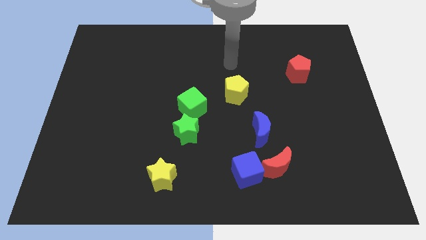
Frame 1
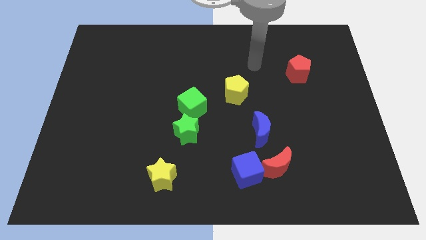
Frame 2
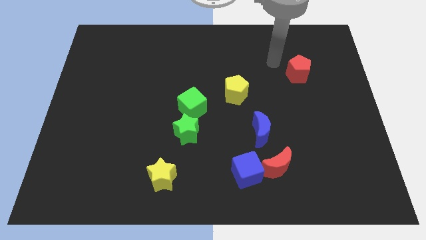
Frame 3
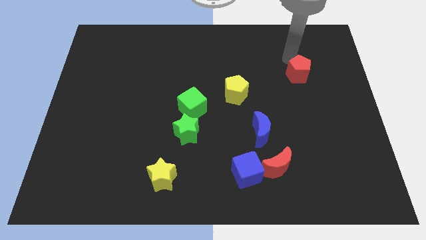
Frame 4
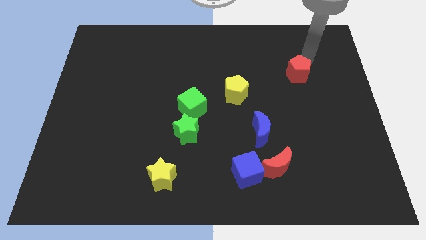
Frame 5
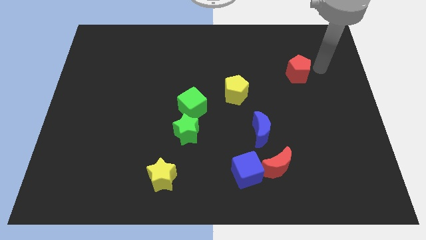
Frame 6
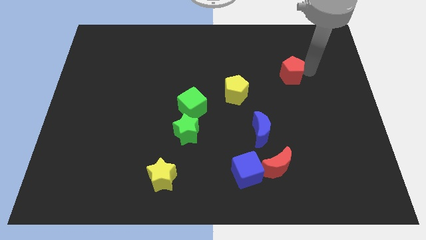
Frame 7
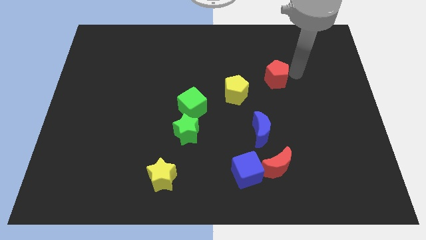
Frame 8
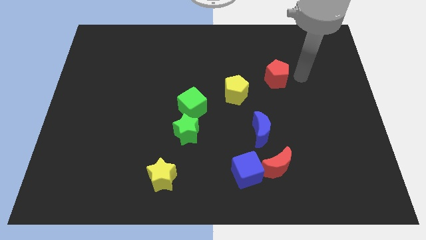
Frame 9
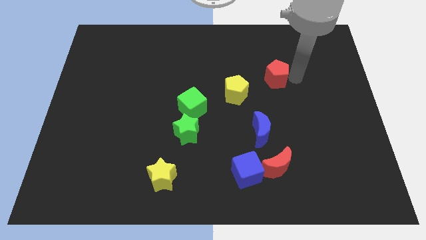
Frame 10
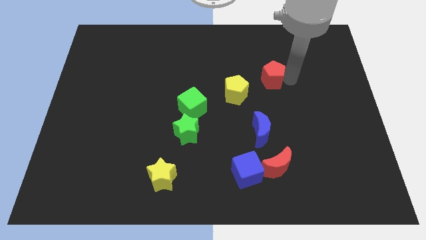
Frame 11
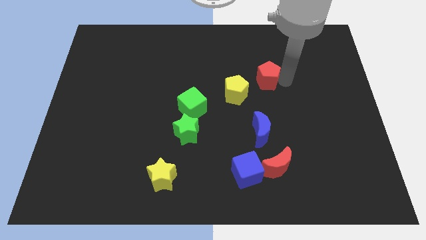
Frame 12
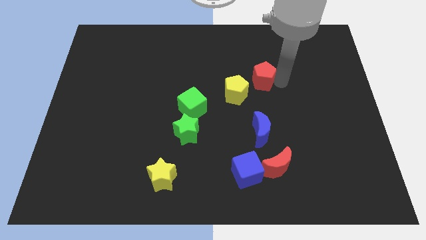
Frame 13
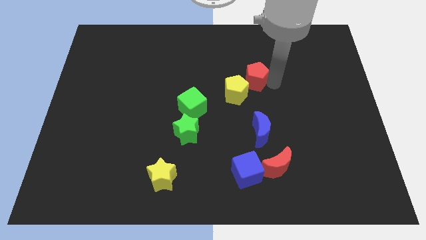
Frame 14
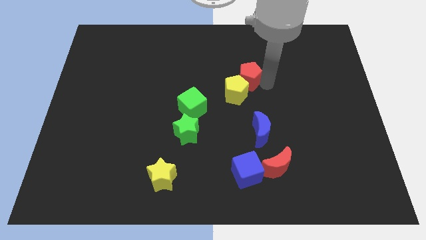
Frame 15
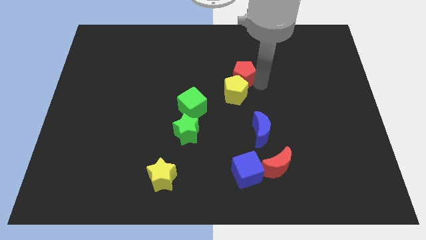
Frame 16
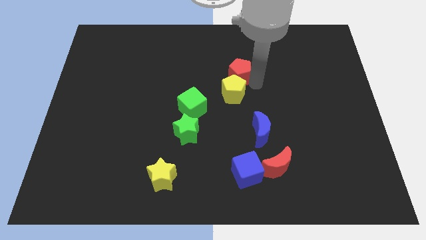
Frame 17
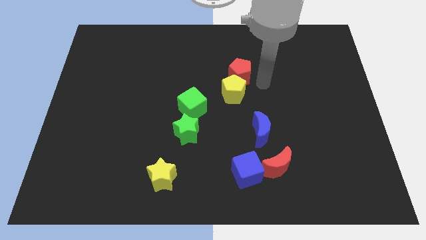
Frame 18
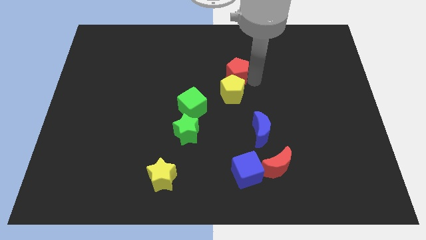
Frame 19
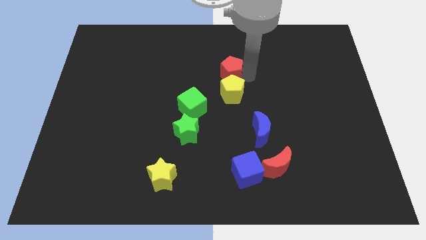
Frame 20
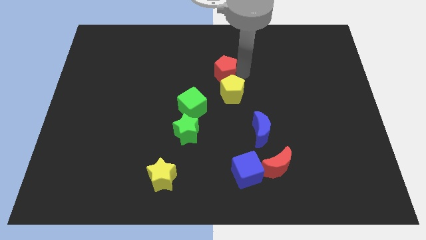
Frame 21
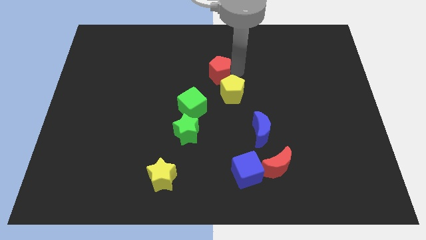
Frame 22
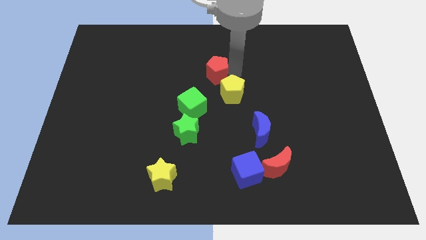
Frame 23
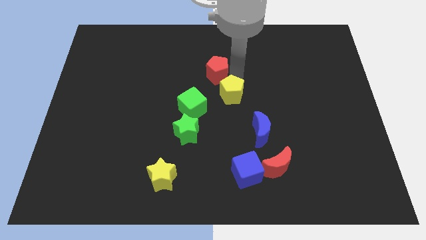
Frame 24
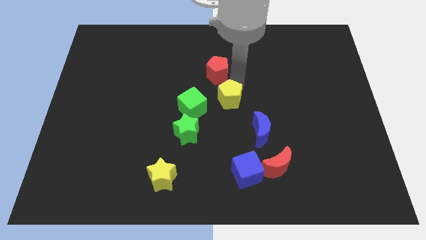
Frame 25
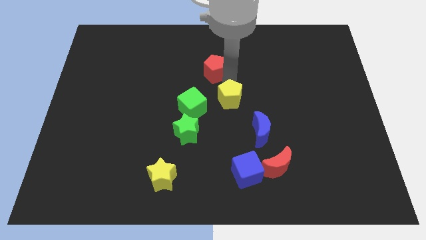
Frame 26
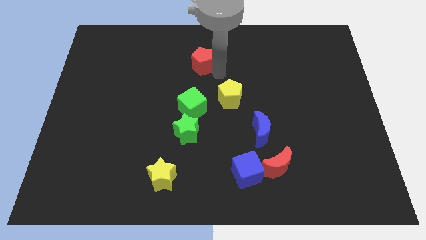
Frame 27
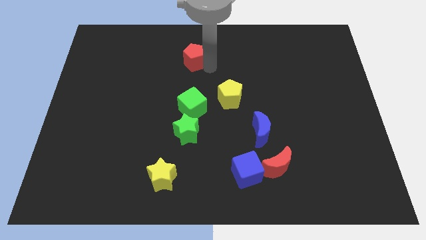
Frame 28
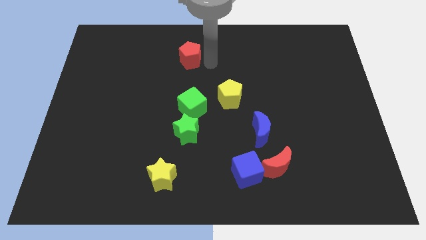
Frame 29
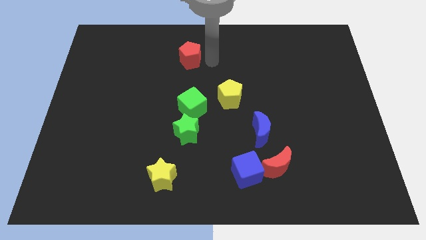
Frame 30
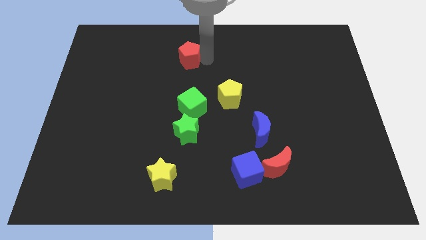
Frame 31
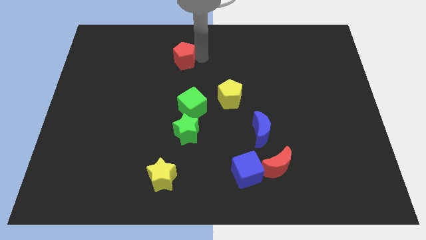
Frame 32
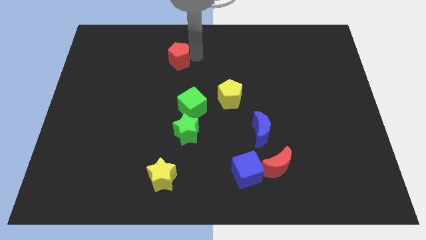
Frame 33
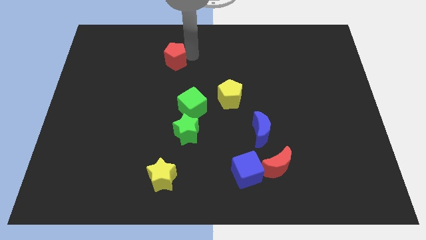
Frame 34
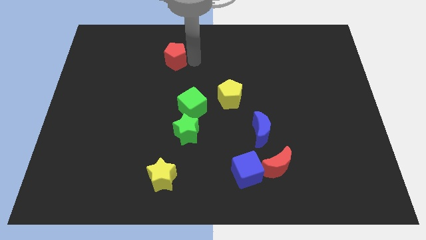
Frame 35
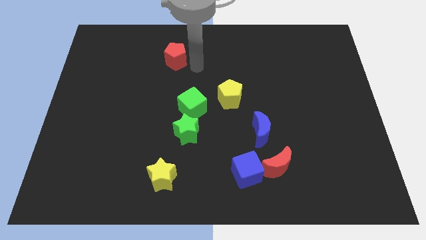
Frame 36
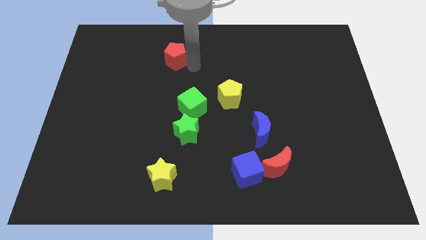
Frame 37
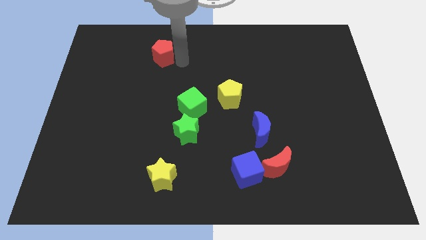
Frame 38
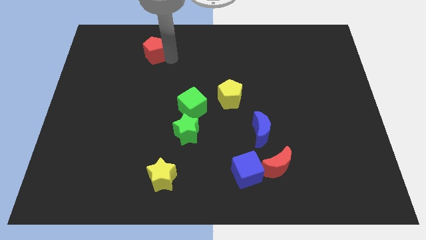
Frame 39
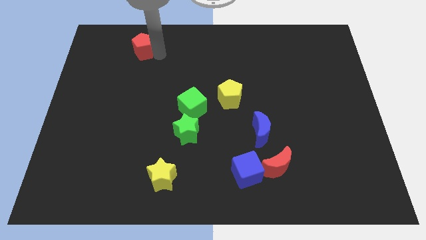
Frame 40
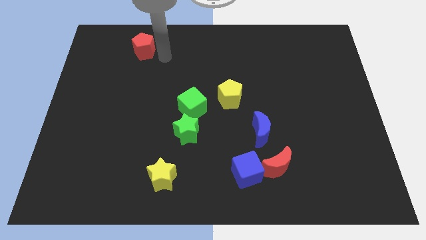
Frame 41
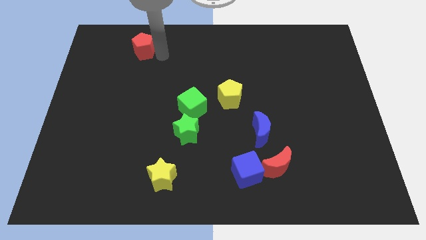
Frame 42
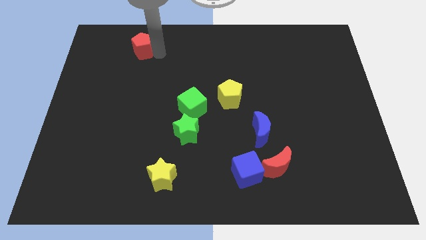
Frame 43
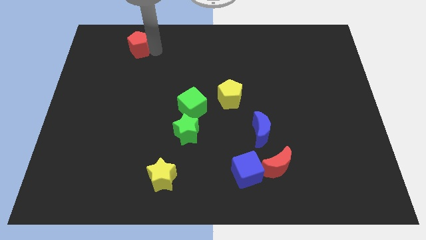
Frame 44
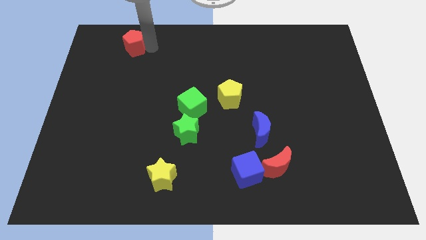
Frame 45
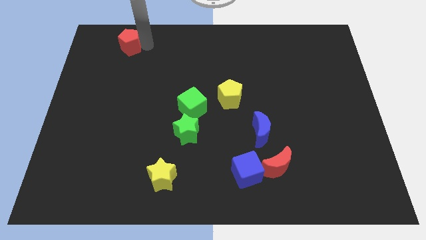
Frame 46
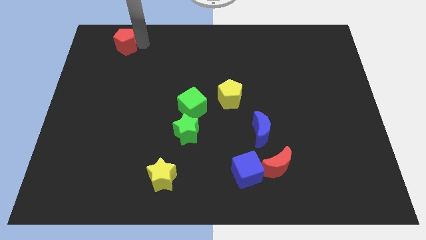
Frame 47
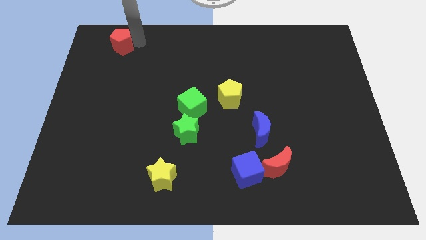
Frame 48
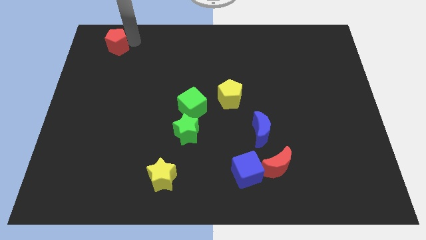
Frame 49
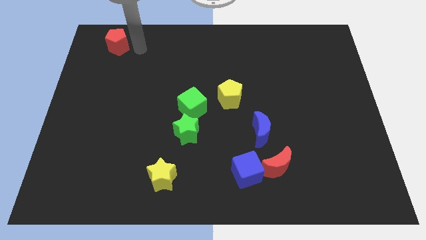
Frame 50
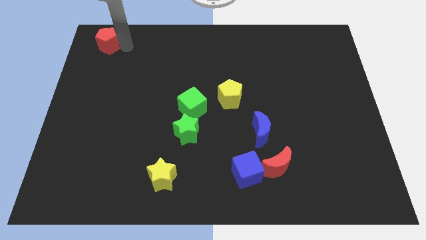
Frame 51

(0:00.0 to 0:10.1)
push the red pentagon to the top left of the board

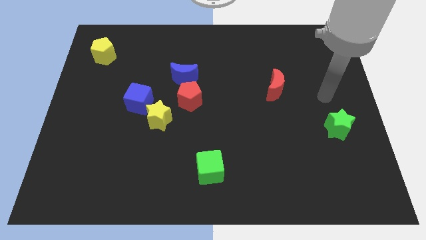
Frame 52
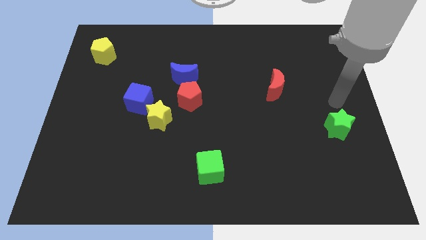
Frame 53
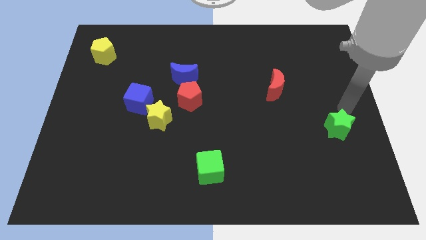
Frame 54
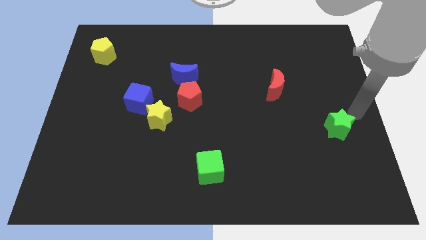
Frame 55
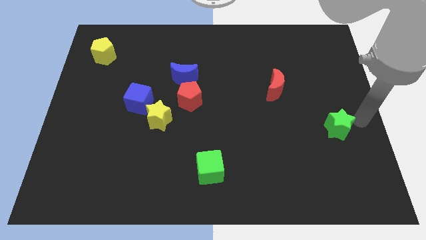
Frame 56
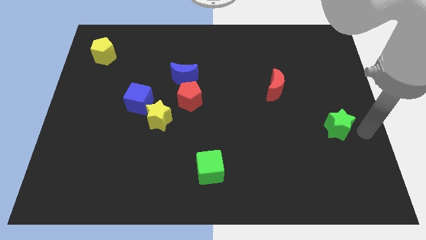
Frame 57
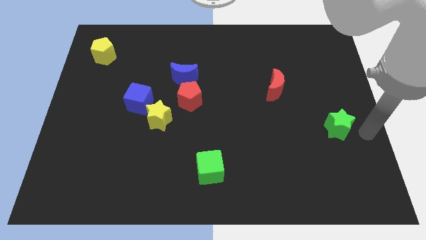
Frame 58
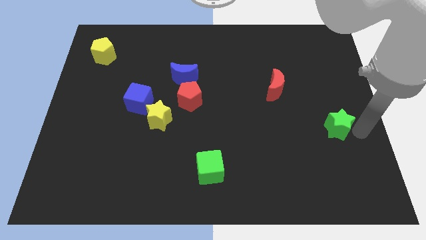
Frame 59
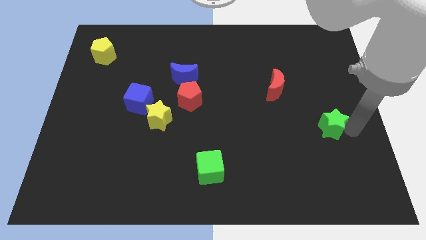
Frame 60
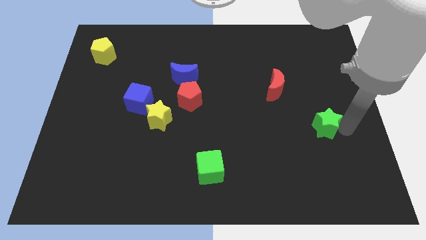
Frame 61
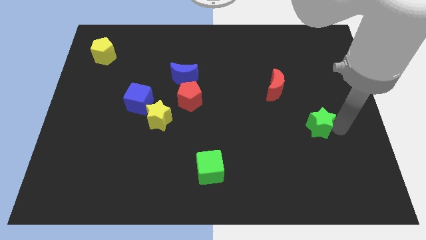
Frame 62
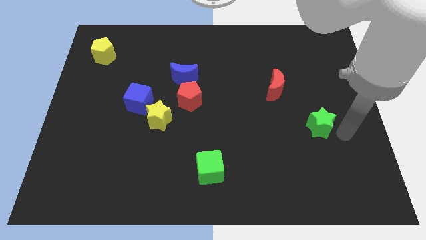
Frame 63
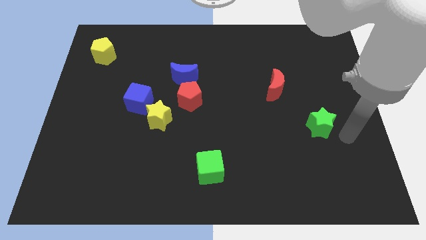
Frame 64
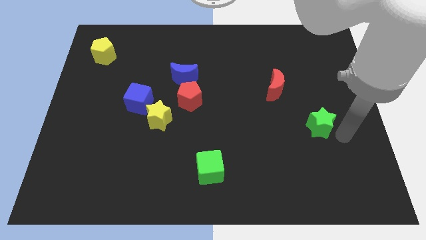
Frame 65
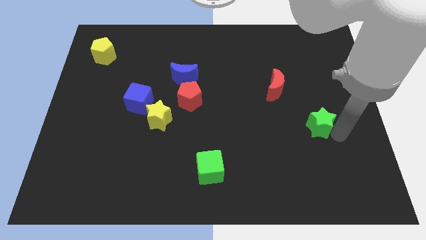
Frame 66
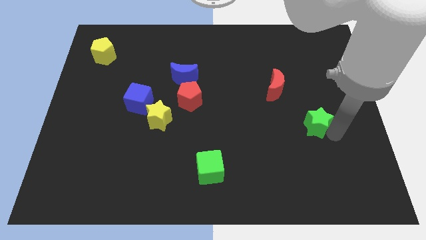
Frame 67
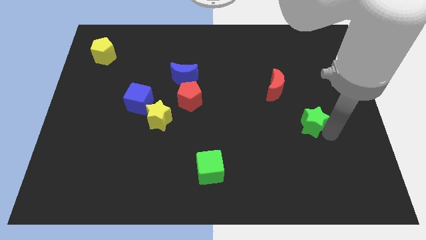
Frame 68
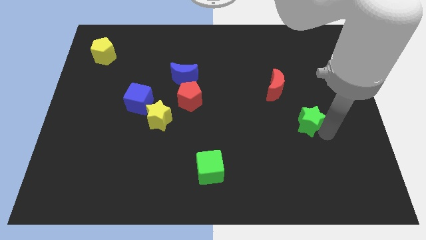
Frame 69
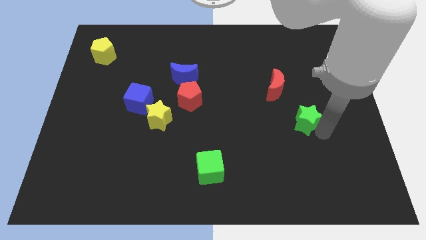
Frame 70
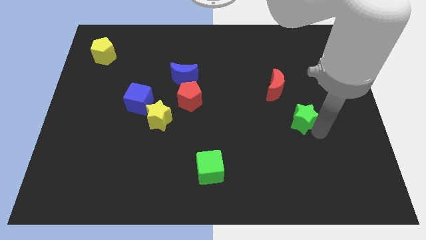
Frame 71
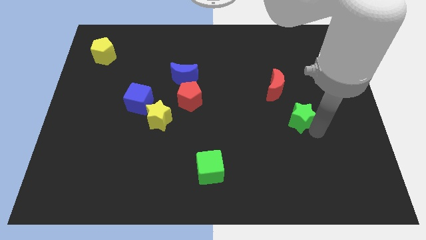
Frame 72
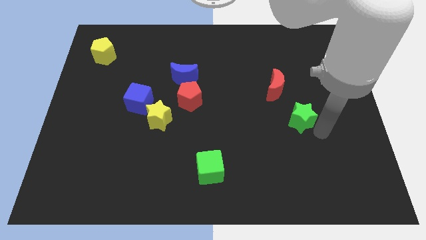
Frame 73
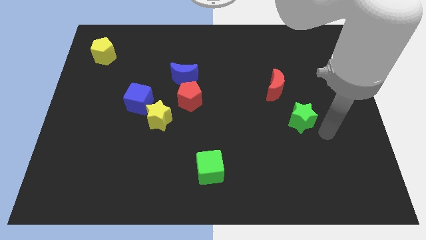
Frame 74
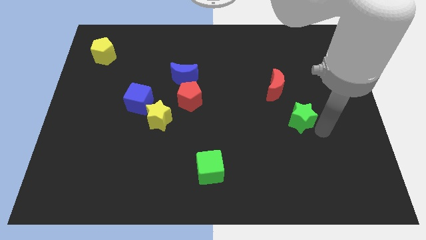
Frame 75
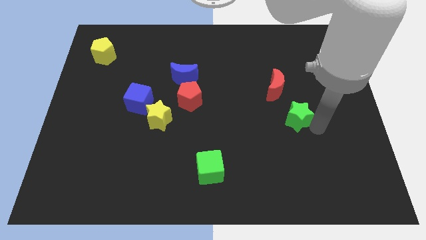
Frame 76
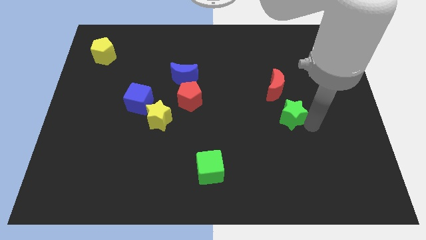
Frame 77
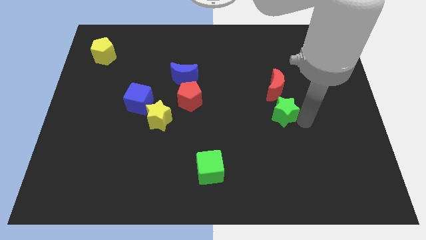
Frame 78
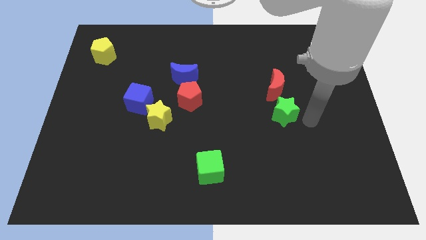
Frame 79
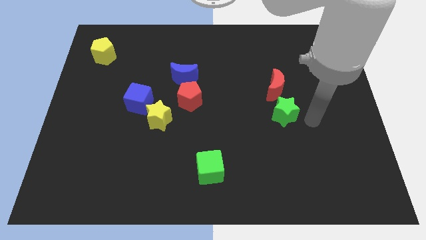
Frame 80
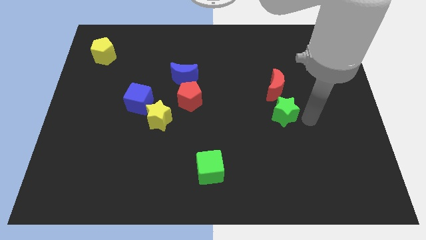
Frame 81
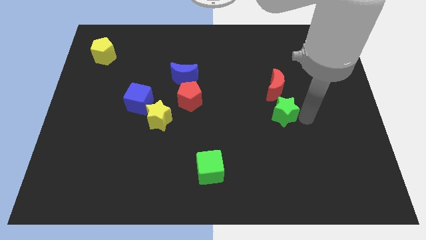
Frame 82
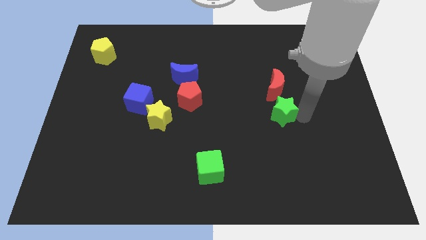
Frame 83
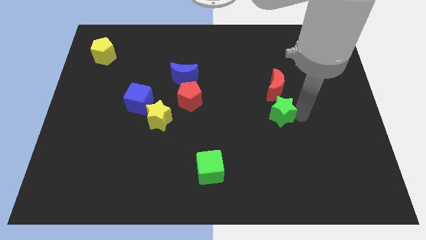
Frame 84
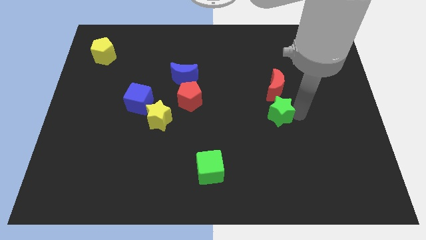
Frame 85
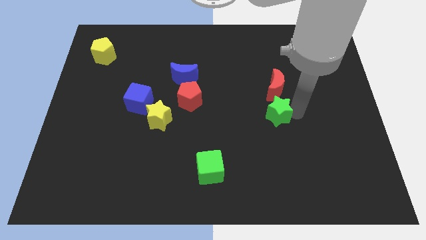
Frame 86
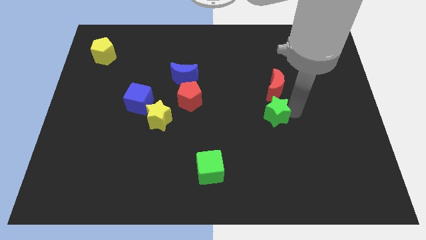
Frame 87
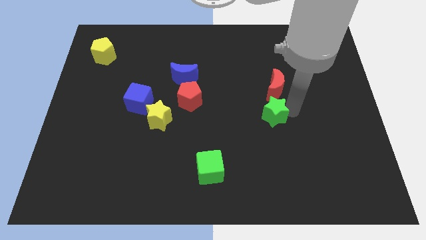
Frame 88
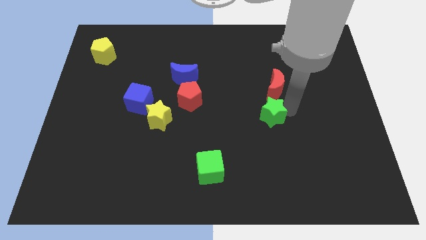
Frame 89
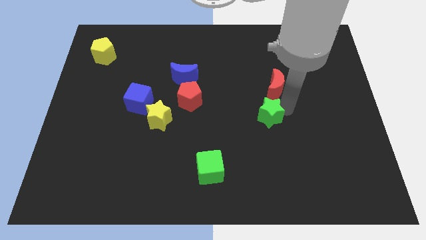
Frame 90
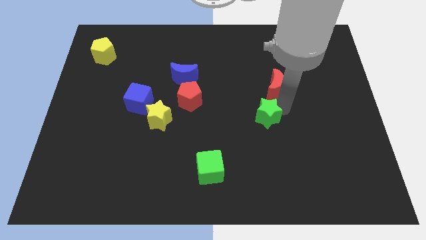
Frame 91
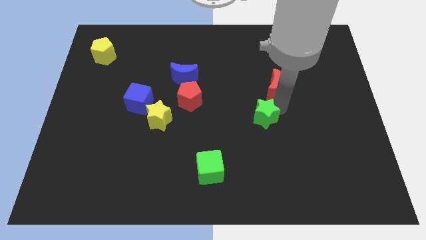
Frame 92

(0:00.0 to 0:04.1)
slide the green star to the center of the board
